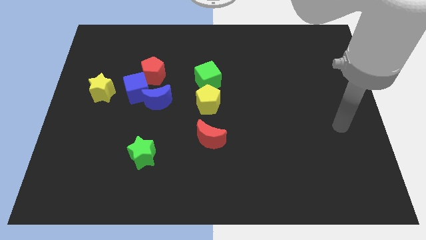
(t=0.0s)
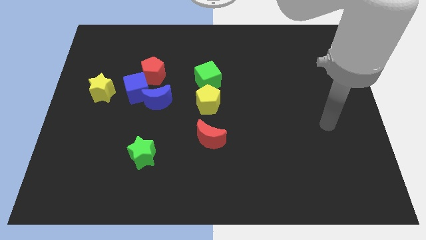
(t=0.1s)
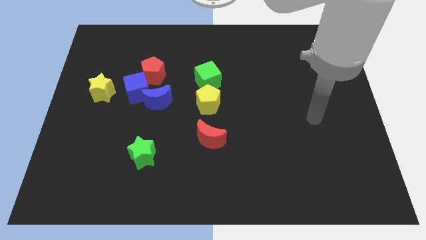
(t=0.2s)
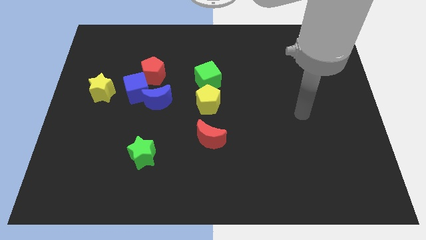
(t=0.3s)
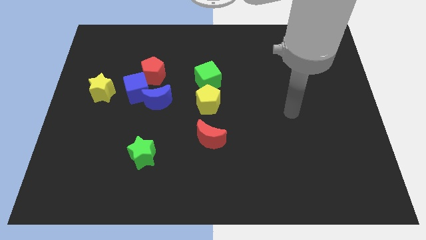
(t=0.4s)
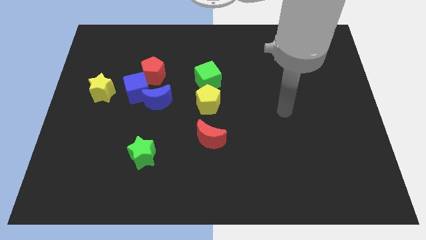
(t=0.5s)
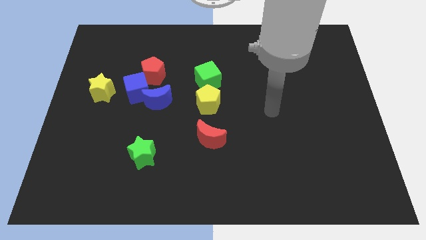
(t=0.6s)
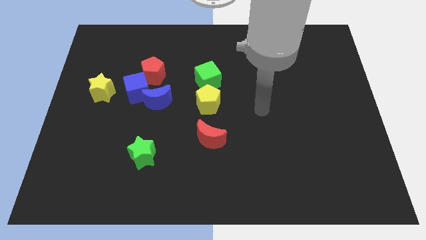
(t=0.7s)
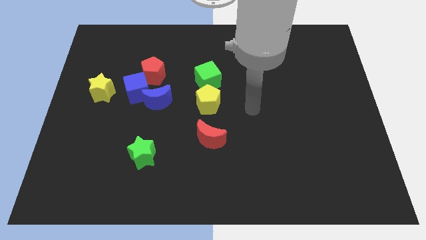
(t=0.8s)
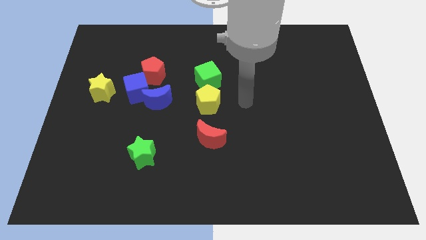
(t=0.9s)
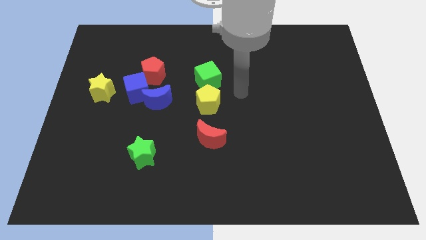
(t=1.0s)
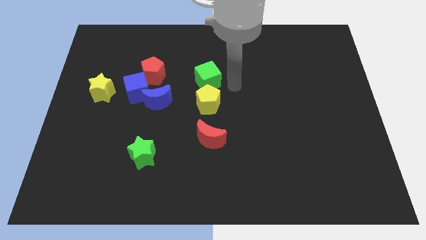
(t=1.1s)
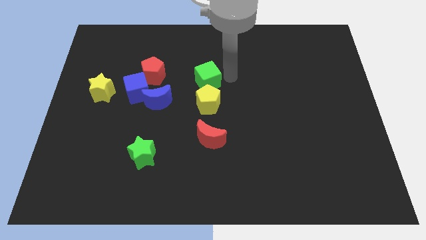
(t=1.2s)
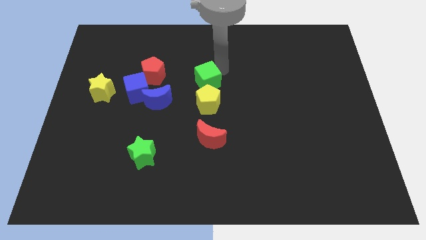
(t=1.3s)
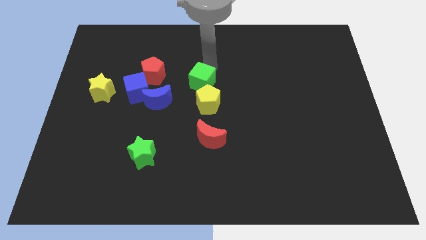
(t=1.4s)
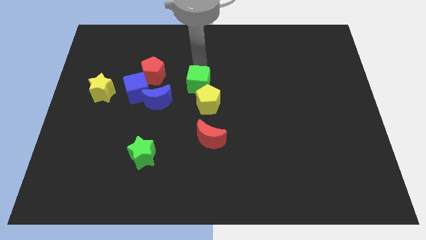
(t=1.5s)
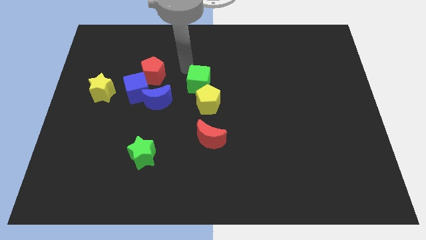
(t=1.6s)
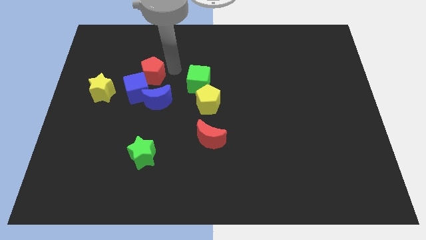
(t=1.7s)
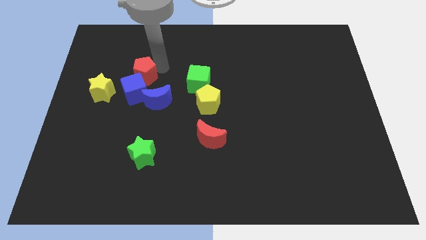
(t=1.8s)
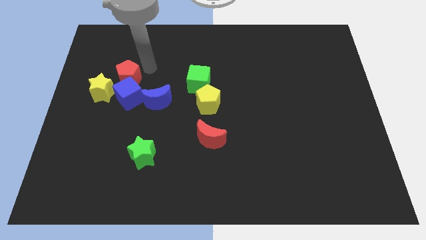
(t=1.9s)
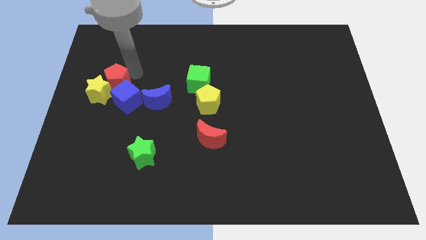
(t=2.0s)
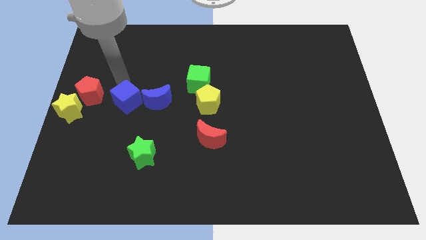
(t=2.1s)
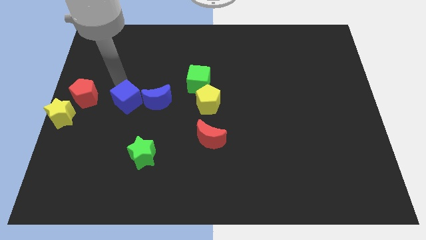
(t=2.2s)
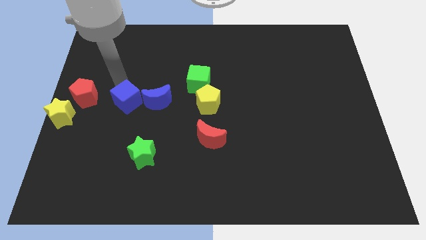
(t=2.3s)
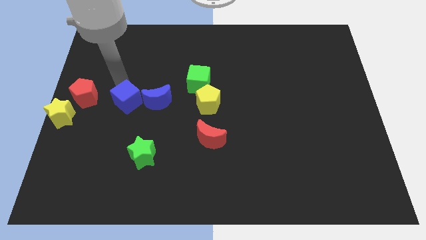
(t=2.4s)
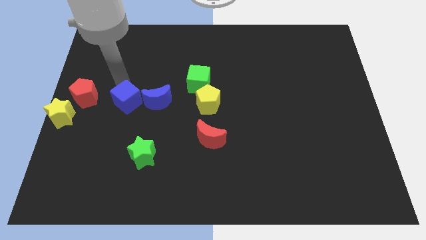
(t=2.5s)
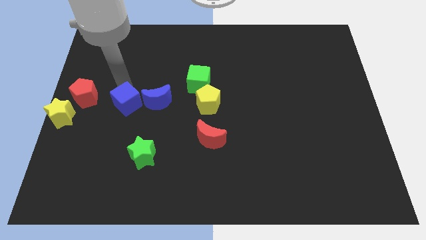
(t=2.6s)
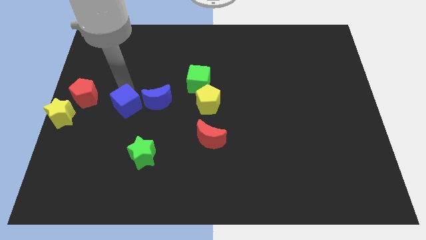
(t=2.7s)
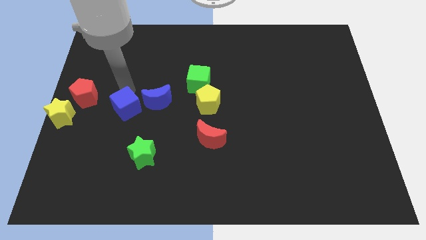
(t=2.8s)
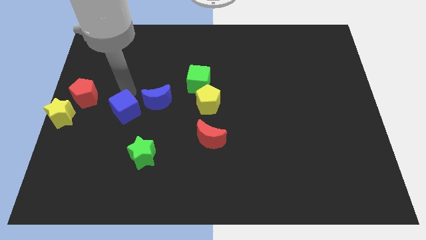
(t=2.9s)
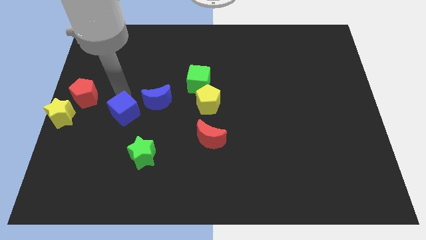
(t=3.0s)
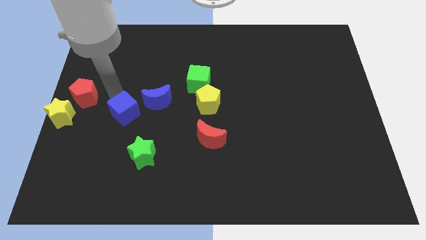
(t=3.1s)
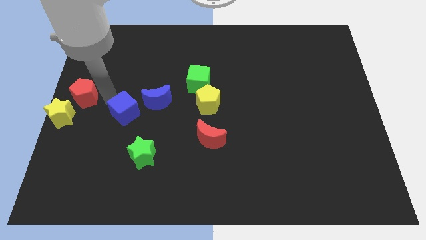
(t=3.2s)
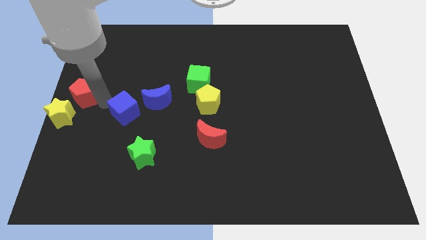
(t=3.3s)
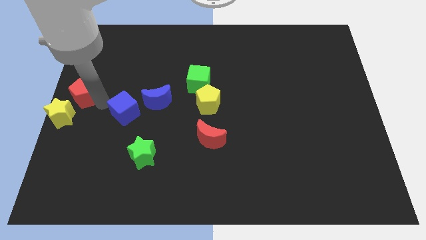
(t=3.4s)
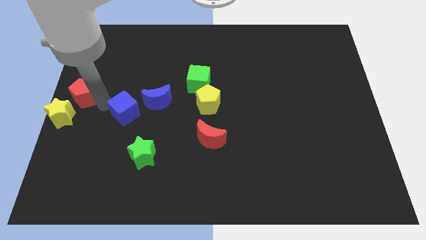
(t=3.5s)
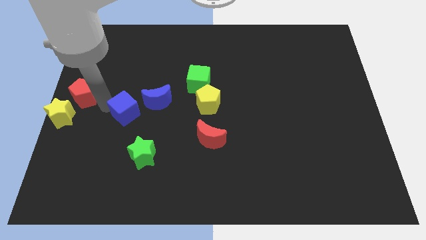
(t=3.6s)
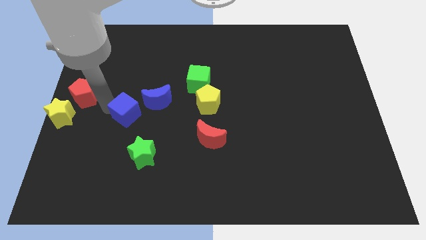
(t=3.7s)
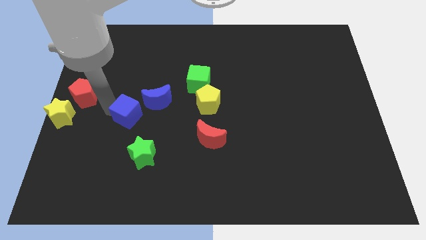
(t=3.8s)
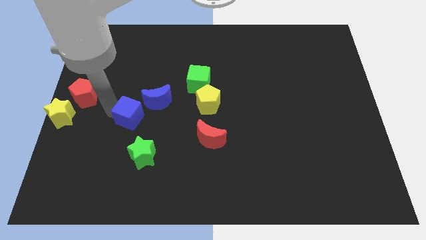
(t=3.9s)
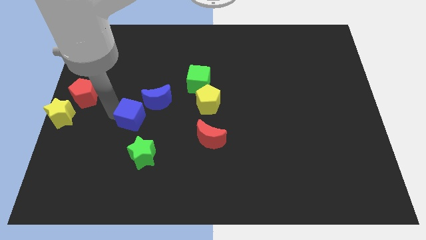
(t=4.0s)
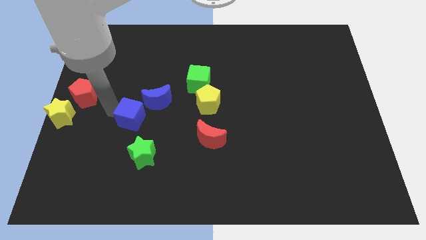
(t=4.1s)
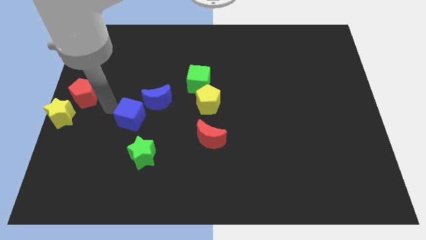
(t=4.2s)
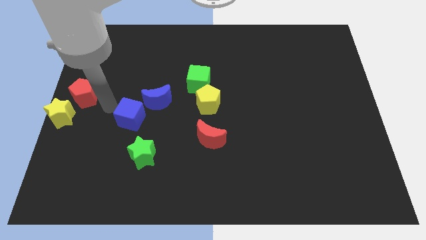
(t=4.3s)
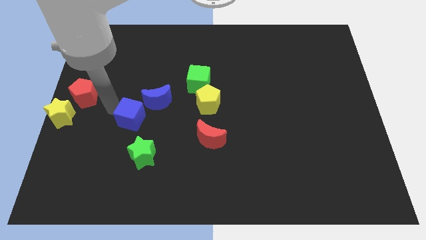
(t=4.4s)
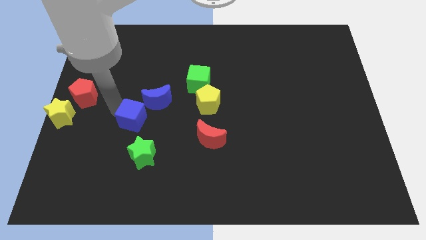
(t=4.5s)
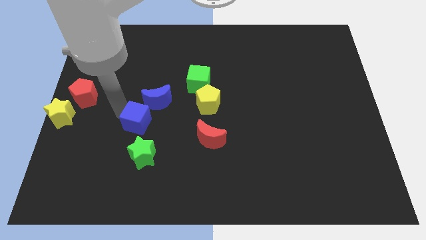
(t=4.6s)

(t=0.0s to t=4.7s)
pull the blue cube apart from the group

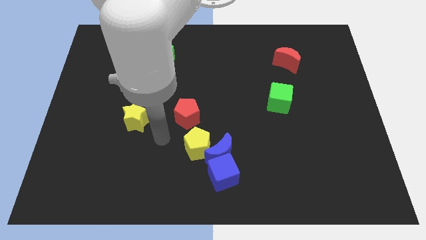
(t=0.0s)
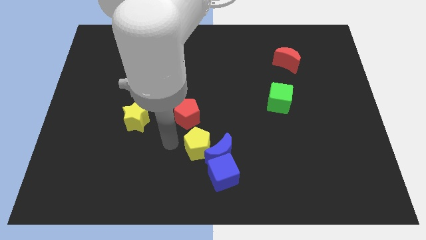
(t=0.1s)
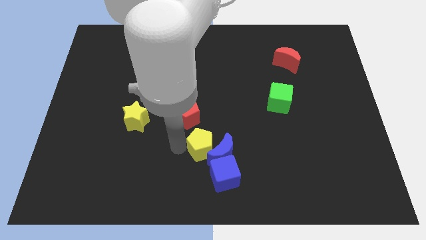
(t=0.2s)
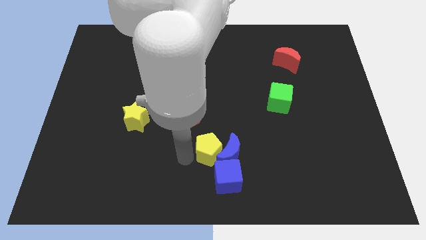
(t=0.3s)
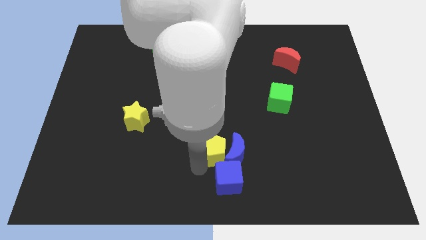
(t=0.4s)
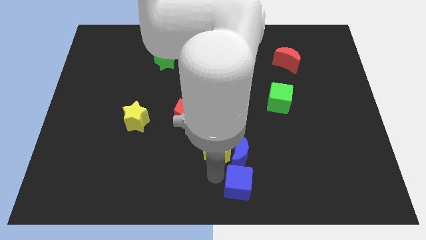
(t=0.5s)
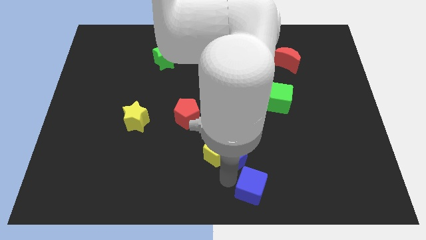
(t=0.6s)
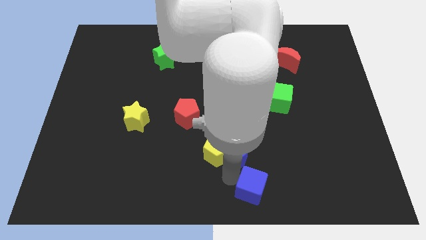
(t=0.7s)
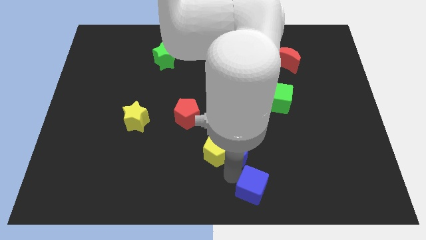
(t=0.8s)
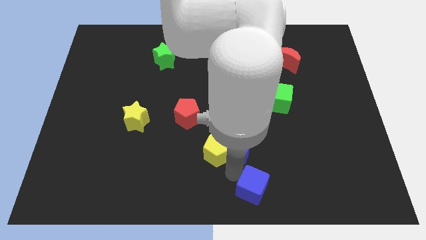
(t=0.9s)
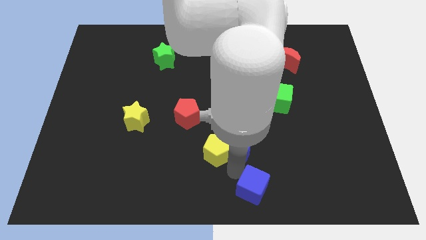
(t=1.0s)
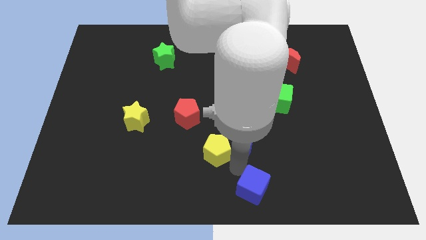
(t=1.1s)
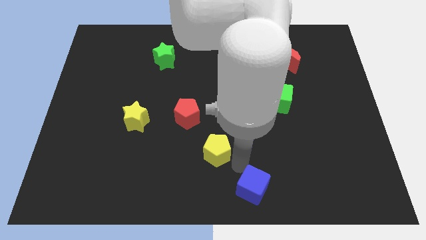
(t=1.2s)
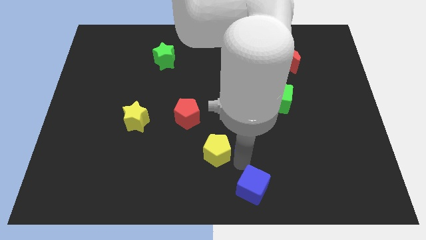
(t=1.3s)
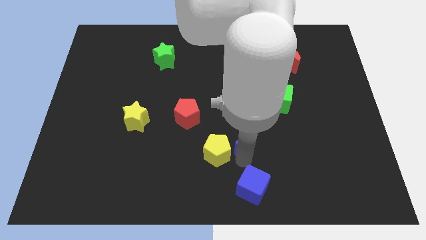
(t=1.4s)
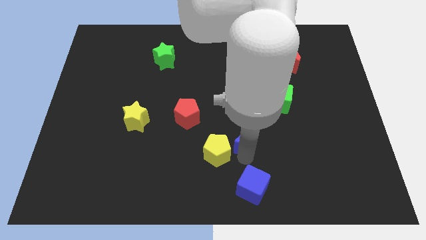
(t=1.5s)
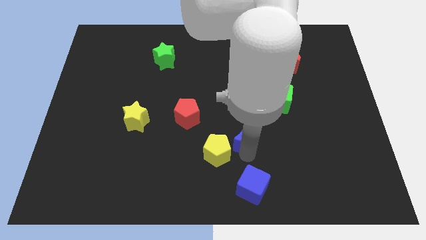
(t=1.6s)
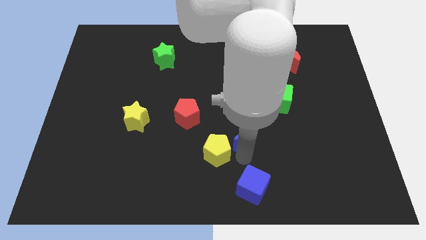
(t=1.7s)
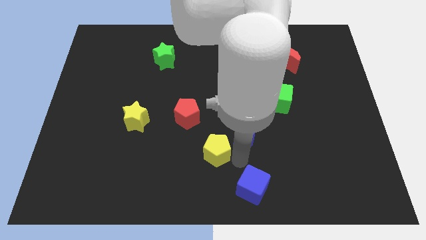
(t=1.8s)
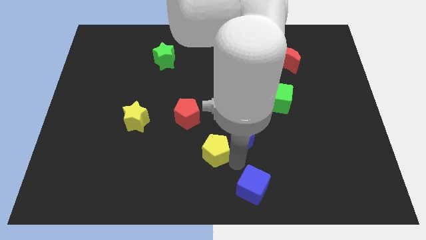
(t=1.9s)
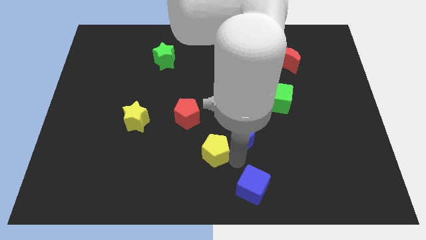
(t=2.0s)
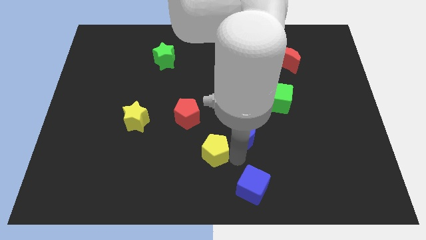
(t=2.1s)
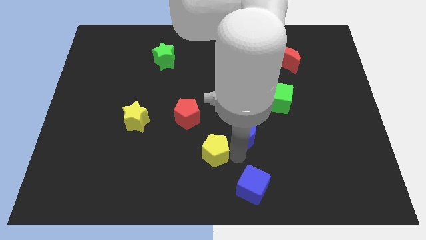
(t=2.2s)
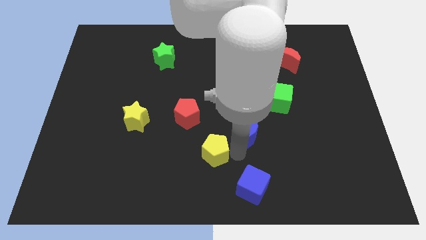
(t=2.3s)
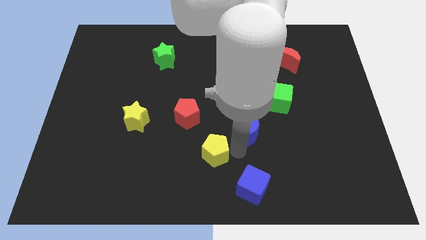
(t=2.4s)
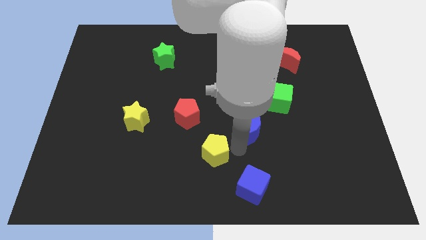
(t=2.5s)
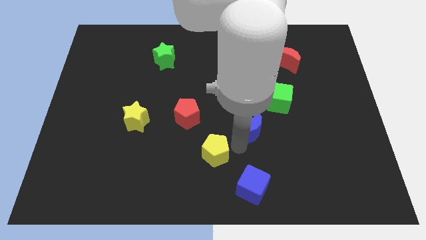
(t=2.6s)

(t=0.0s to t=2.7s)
move the blue moon away from the blue cube and yellow pentagon

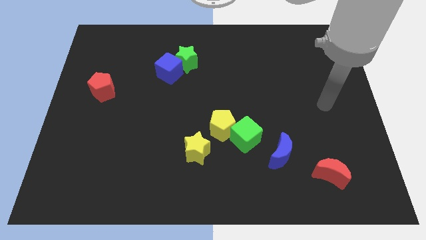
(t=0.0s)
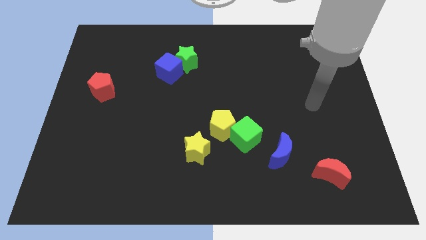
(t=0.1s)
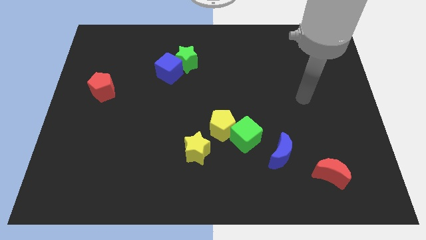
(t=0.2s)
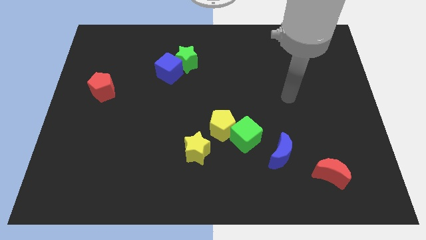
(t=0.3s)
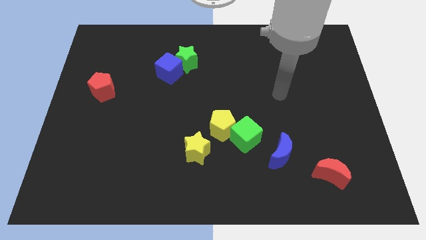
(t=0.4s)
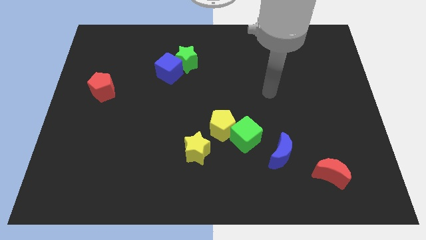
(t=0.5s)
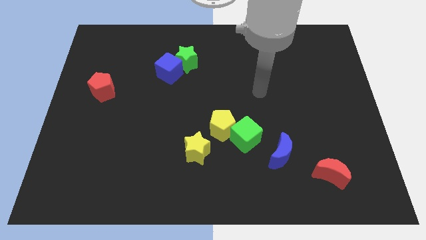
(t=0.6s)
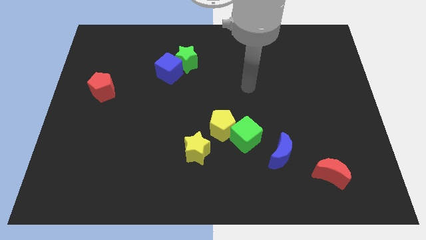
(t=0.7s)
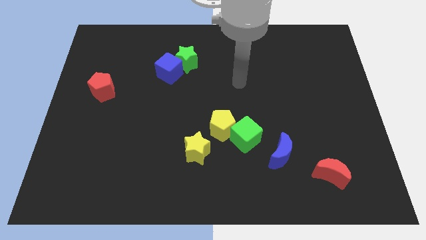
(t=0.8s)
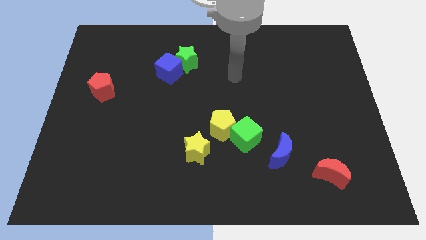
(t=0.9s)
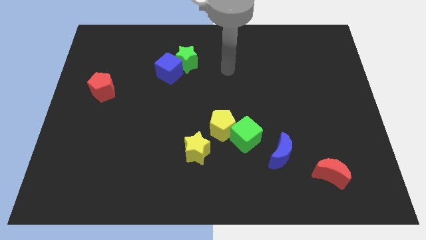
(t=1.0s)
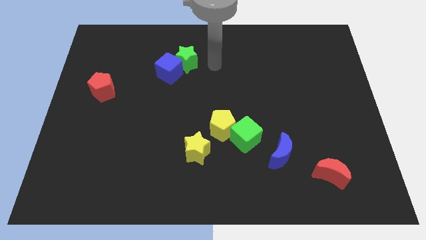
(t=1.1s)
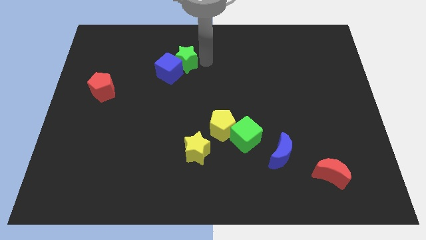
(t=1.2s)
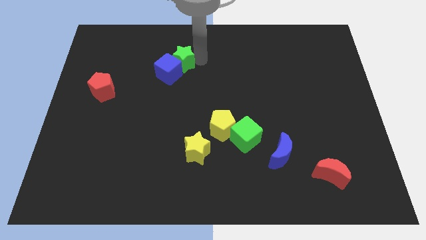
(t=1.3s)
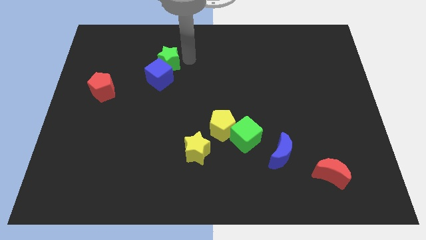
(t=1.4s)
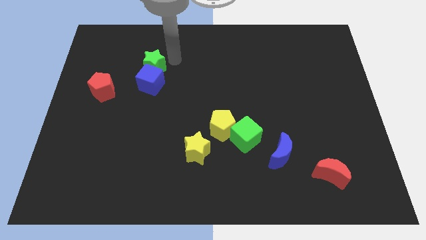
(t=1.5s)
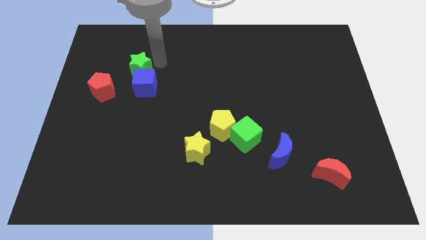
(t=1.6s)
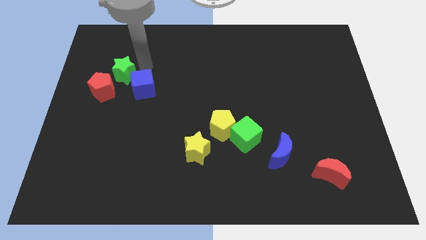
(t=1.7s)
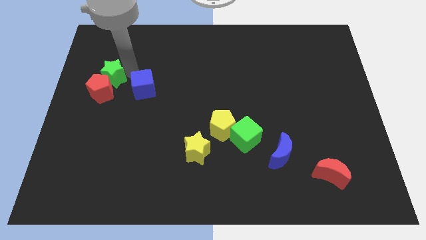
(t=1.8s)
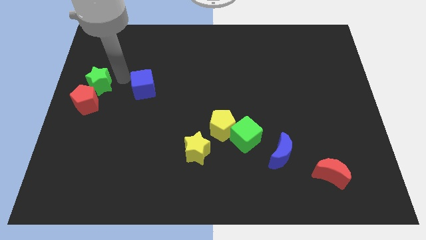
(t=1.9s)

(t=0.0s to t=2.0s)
separate the blue cube from the green star
